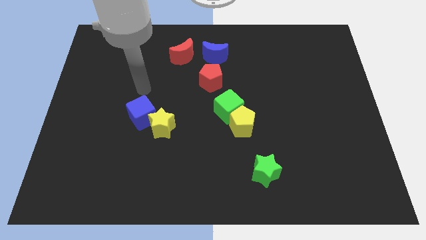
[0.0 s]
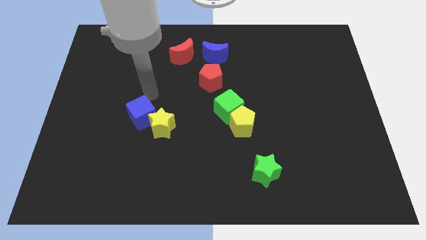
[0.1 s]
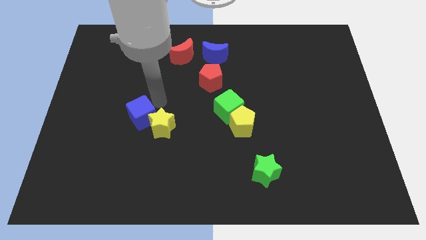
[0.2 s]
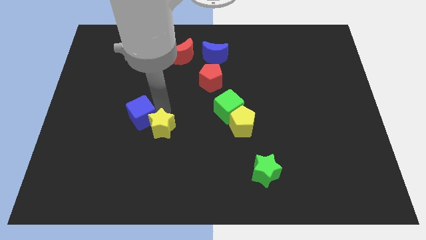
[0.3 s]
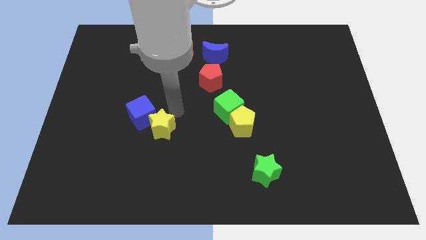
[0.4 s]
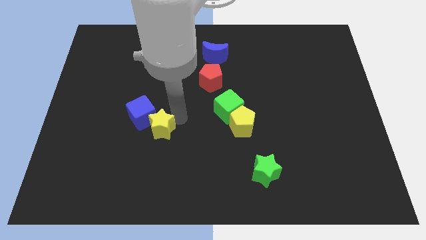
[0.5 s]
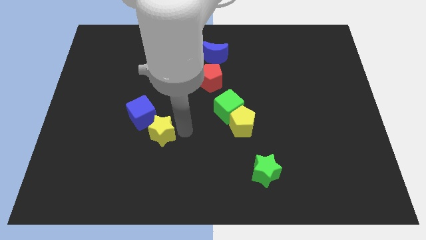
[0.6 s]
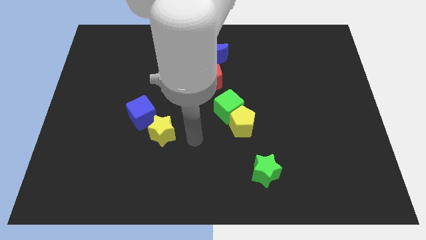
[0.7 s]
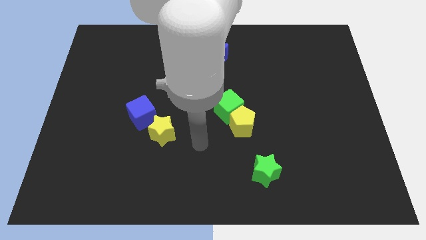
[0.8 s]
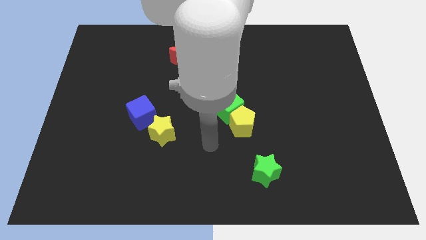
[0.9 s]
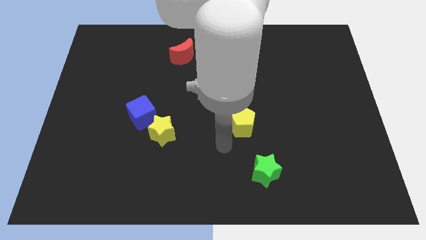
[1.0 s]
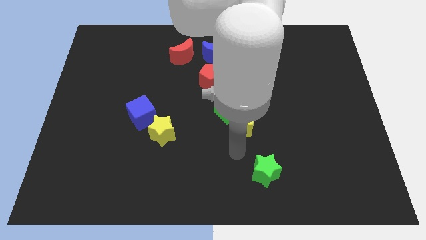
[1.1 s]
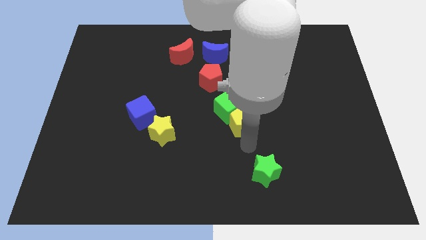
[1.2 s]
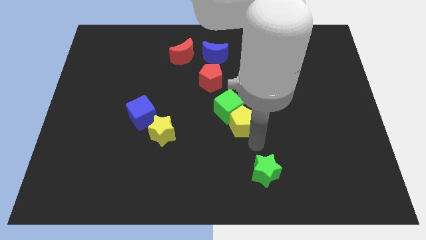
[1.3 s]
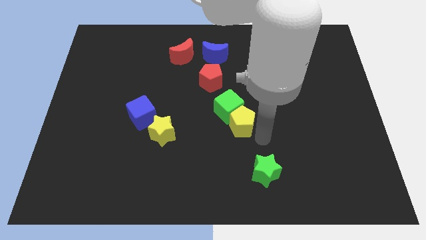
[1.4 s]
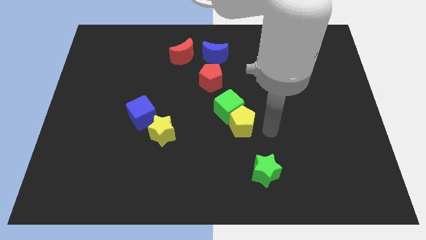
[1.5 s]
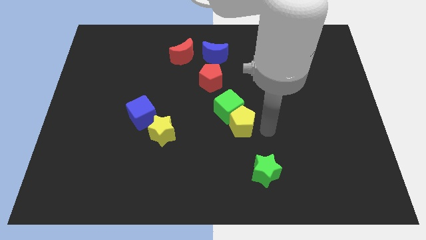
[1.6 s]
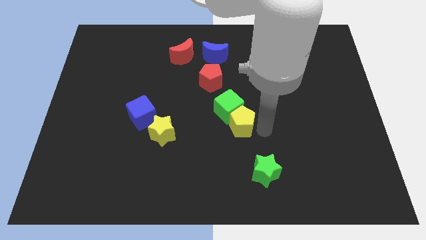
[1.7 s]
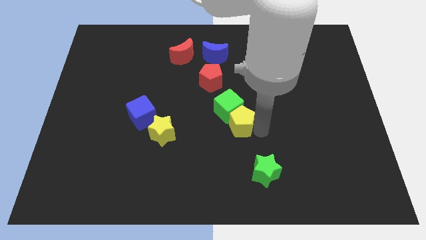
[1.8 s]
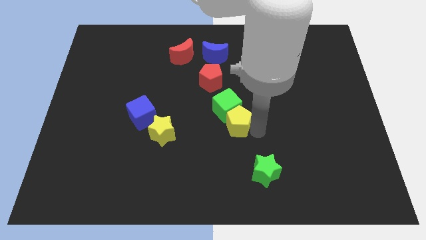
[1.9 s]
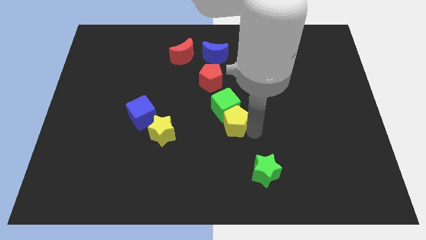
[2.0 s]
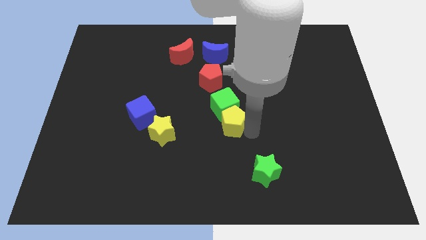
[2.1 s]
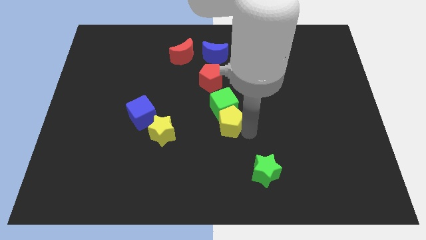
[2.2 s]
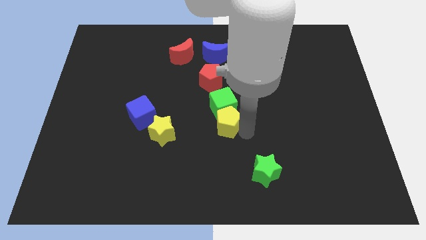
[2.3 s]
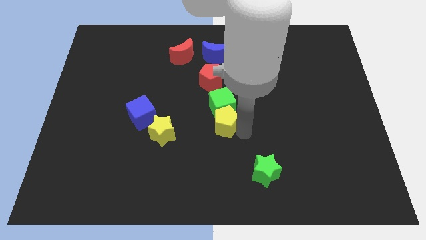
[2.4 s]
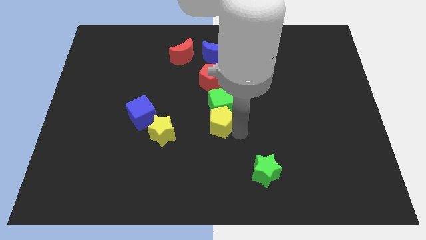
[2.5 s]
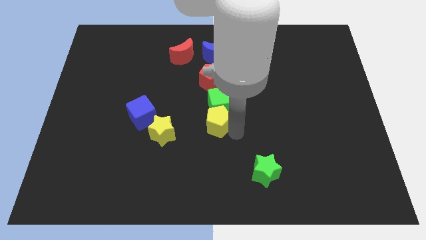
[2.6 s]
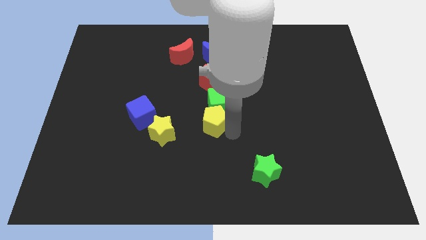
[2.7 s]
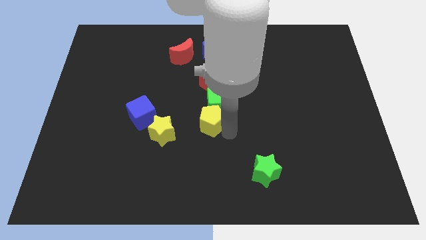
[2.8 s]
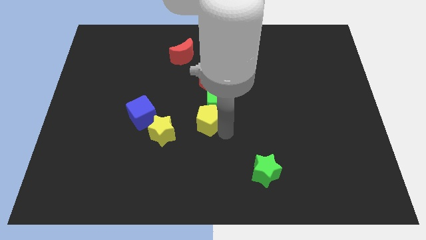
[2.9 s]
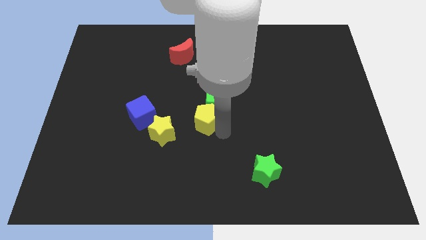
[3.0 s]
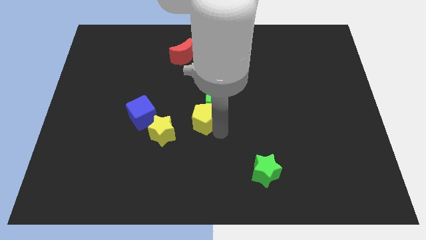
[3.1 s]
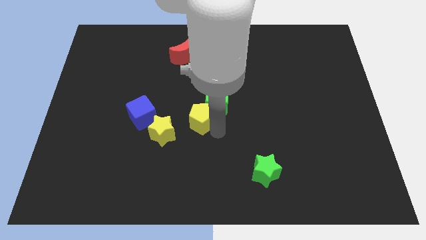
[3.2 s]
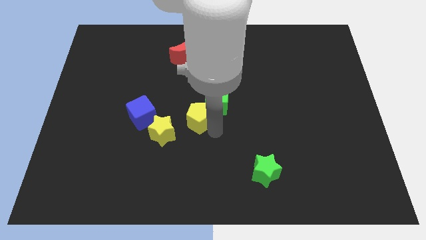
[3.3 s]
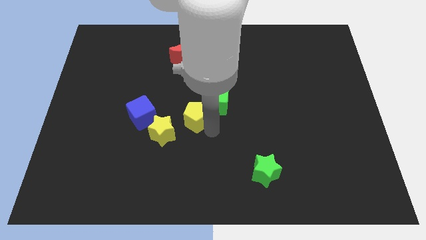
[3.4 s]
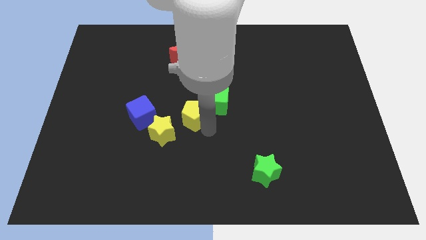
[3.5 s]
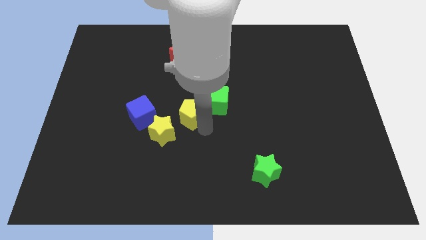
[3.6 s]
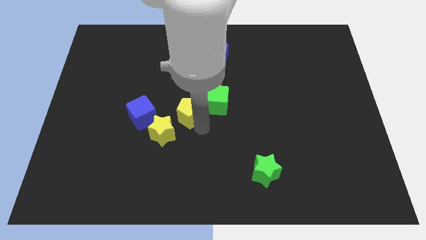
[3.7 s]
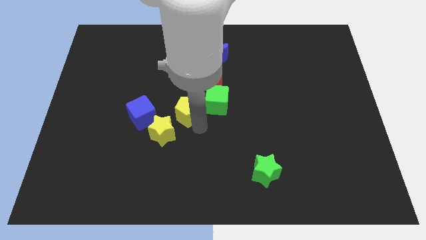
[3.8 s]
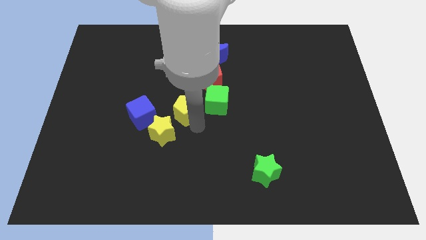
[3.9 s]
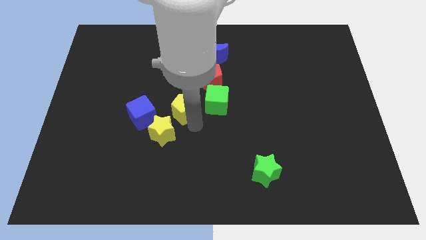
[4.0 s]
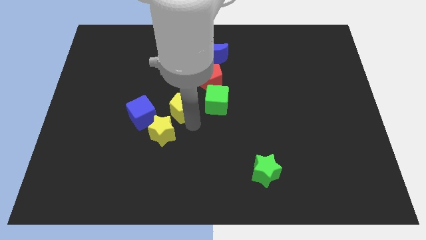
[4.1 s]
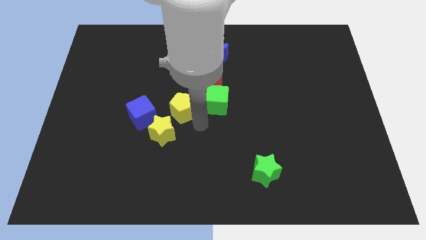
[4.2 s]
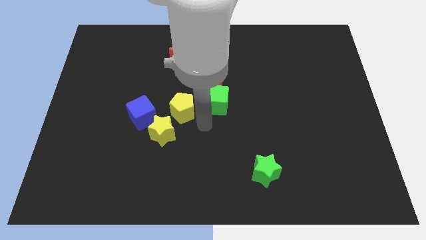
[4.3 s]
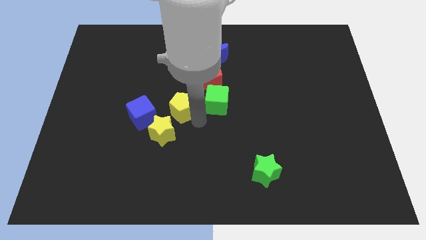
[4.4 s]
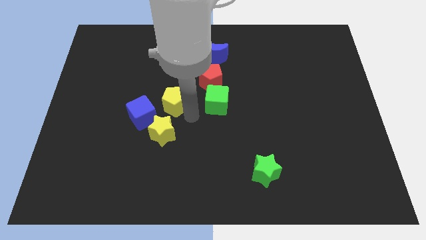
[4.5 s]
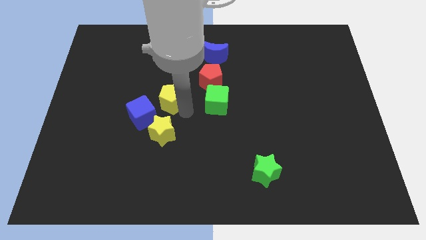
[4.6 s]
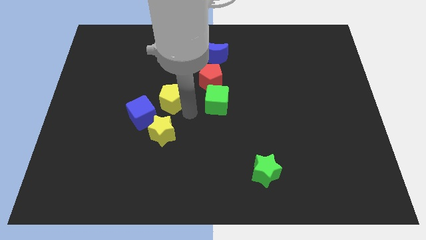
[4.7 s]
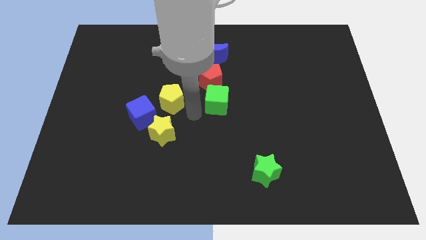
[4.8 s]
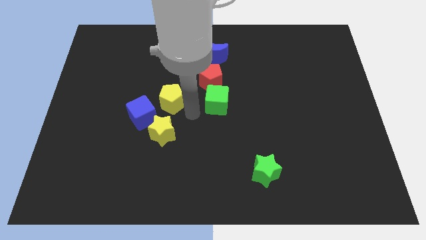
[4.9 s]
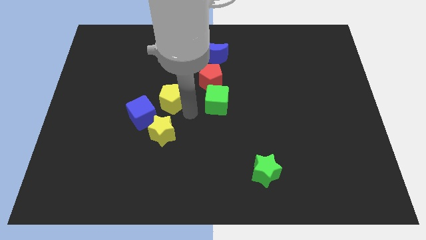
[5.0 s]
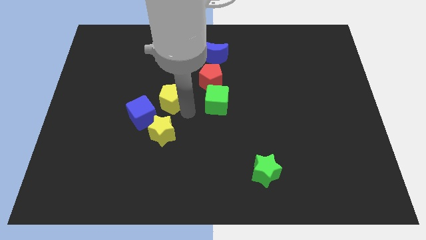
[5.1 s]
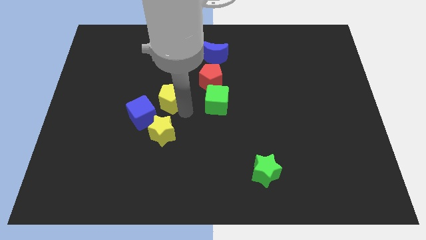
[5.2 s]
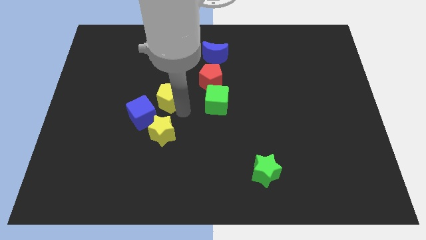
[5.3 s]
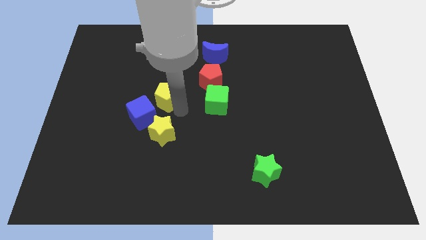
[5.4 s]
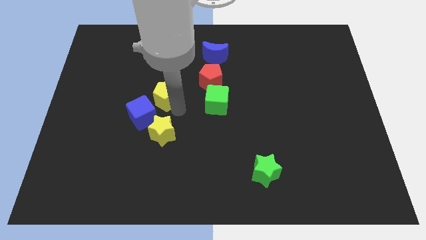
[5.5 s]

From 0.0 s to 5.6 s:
put the yellow pentagon to the top of the blue cube

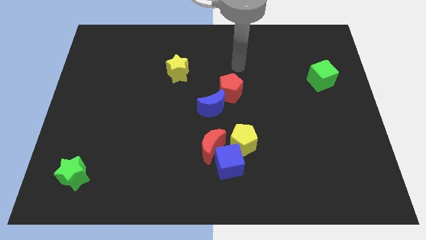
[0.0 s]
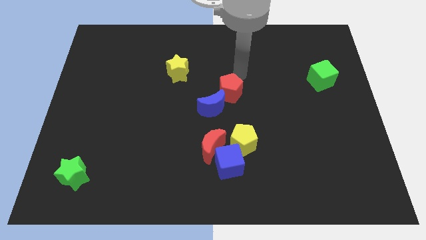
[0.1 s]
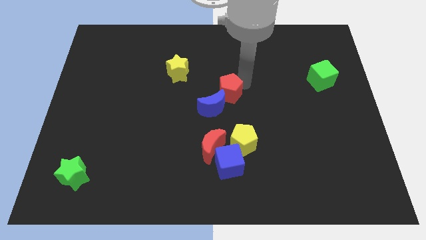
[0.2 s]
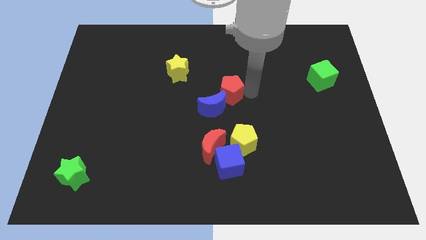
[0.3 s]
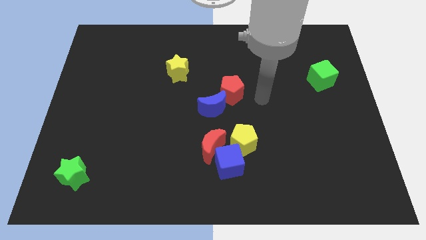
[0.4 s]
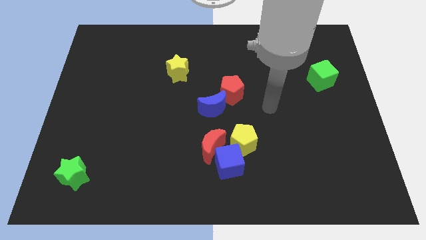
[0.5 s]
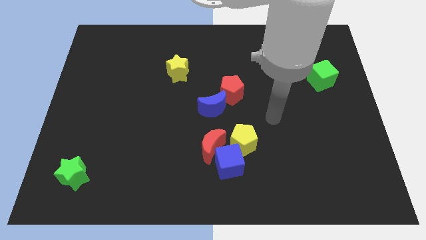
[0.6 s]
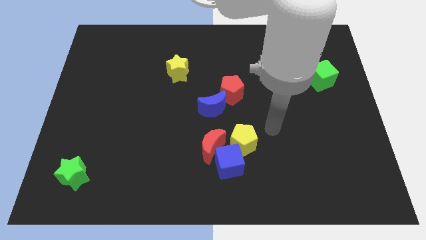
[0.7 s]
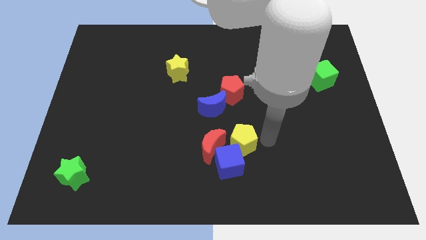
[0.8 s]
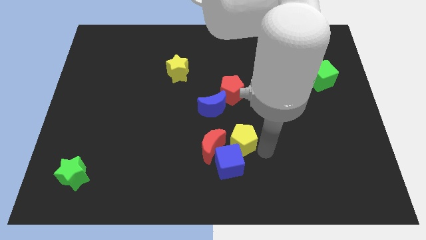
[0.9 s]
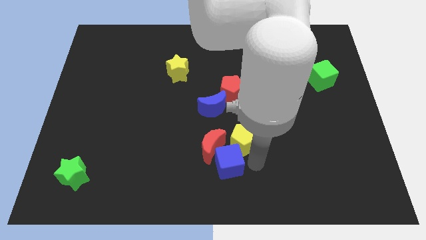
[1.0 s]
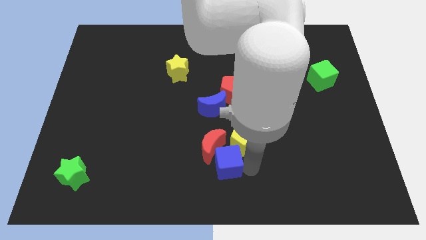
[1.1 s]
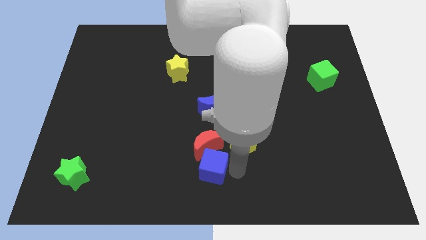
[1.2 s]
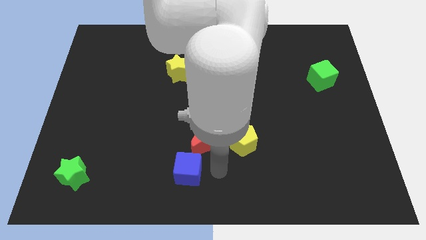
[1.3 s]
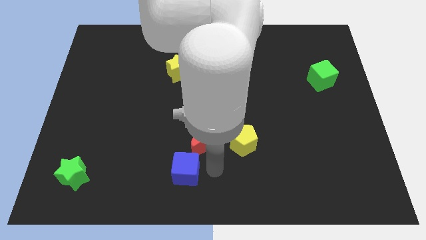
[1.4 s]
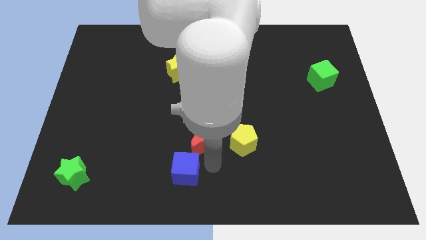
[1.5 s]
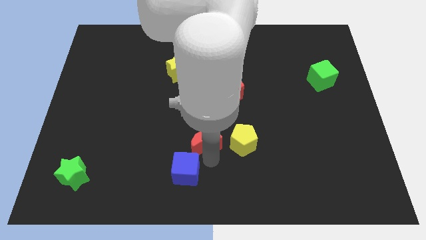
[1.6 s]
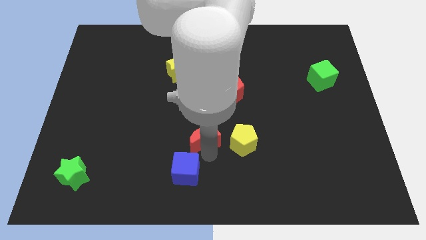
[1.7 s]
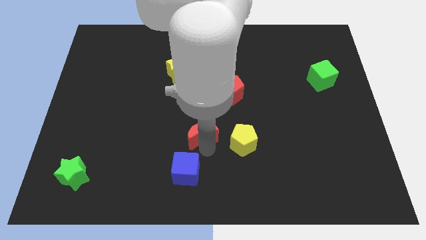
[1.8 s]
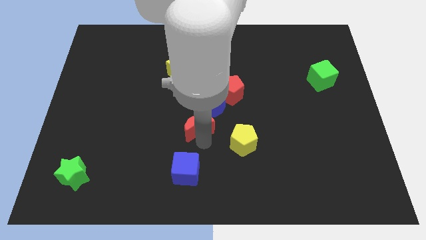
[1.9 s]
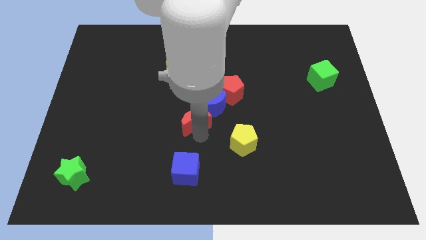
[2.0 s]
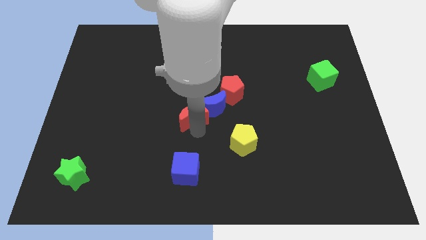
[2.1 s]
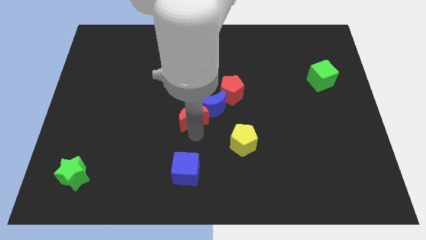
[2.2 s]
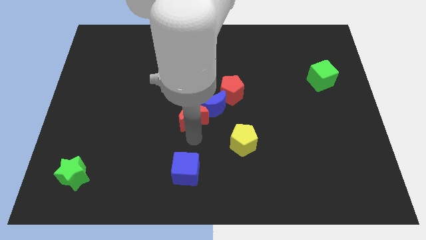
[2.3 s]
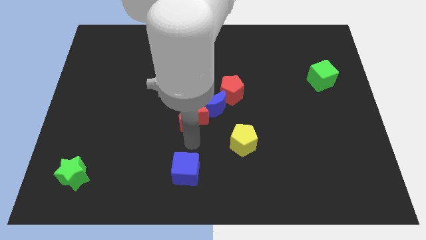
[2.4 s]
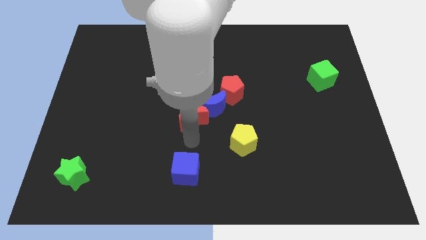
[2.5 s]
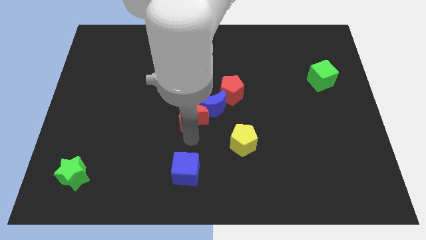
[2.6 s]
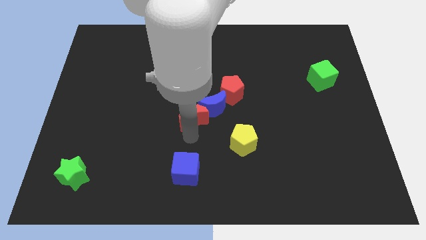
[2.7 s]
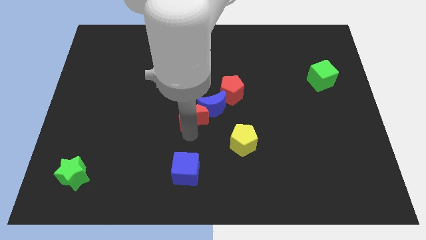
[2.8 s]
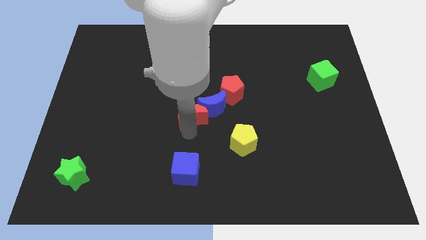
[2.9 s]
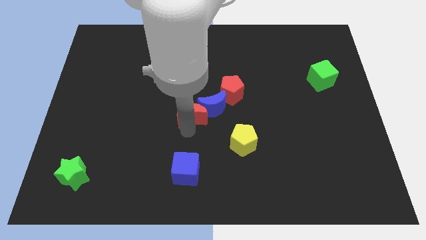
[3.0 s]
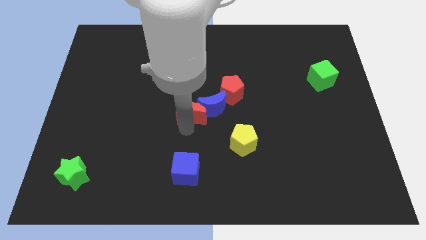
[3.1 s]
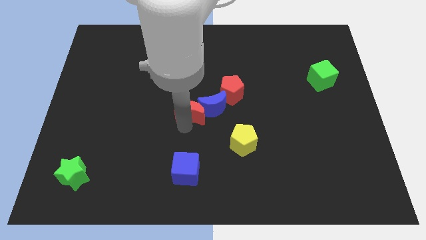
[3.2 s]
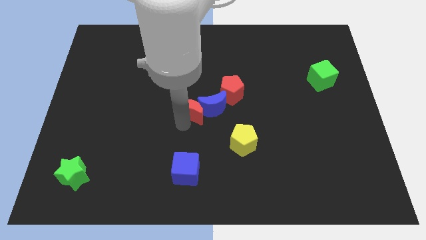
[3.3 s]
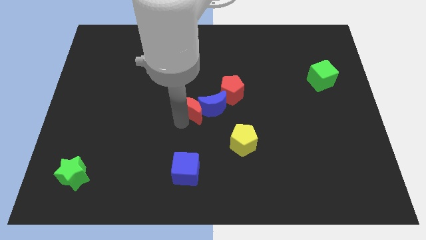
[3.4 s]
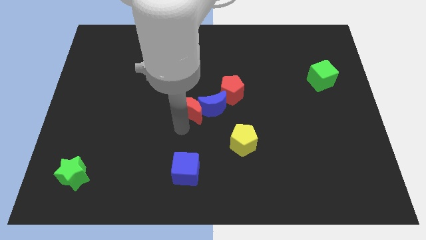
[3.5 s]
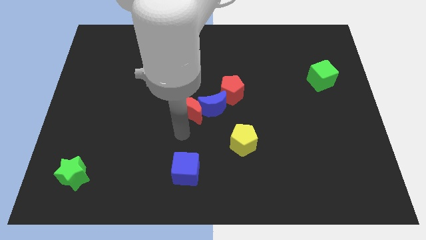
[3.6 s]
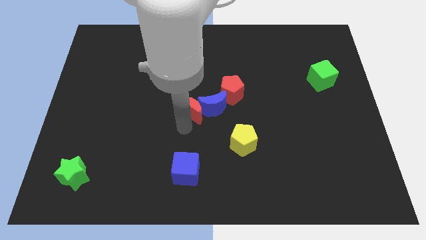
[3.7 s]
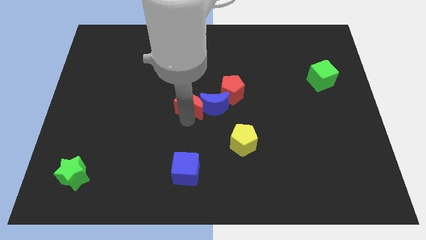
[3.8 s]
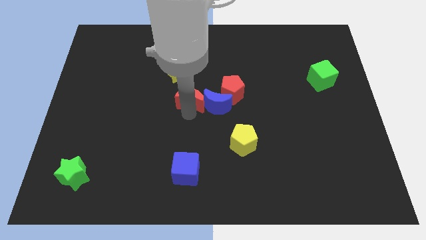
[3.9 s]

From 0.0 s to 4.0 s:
slide the red moon to the bottom right side of the yellow star
